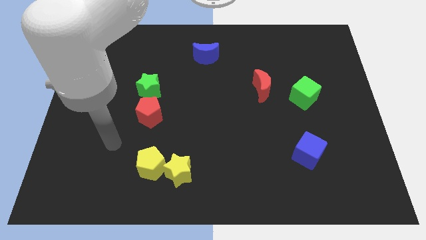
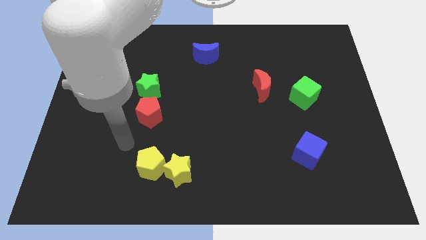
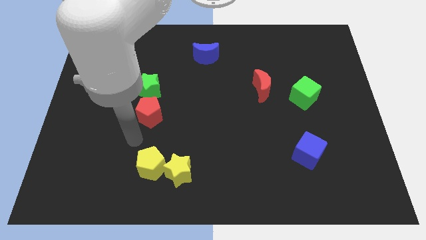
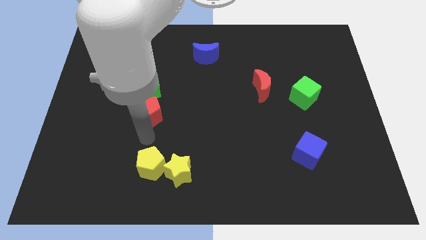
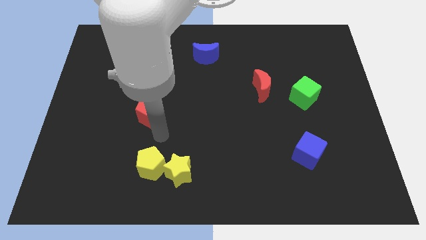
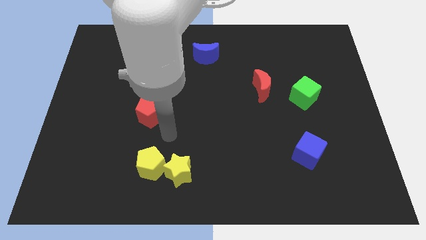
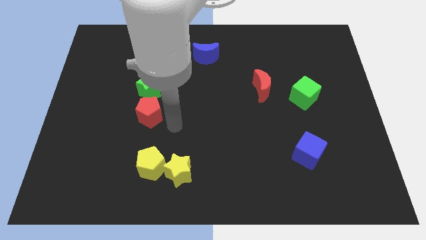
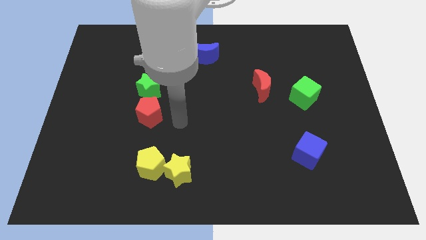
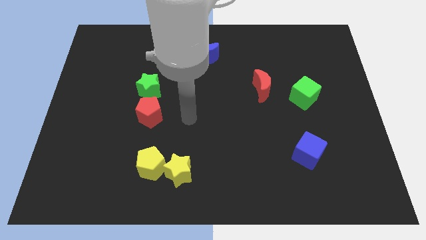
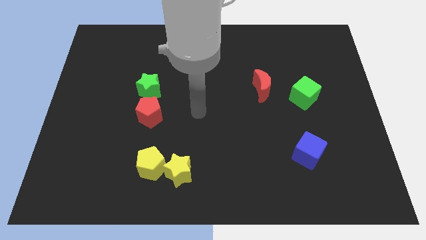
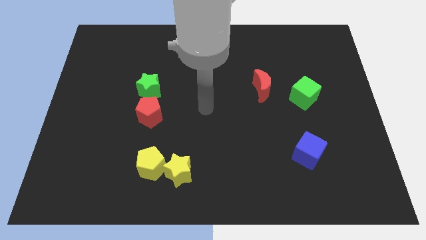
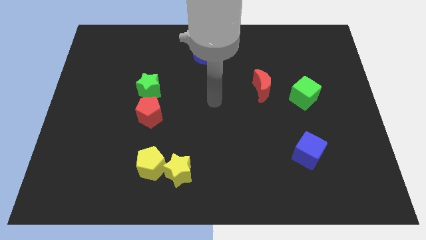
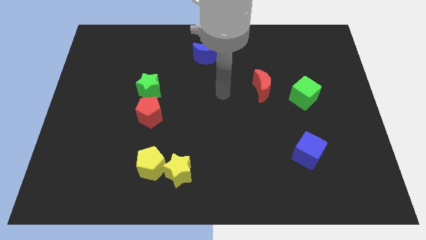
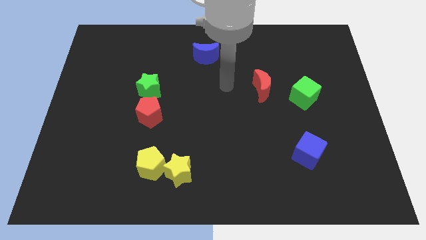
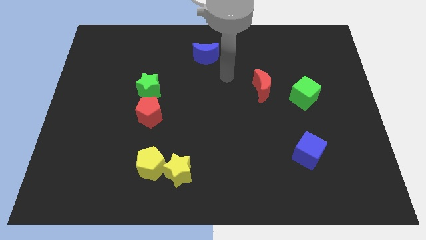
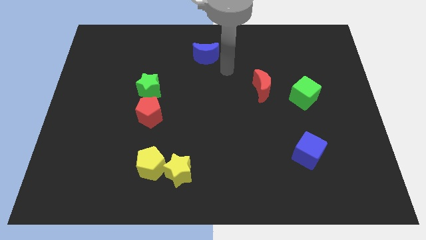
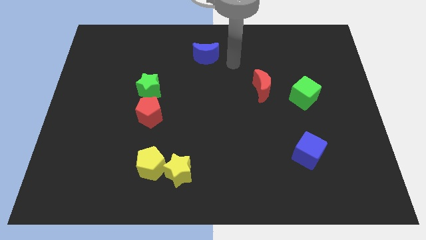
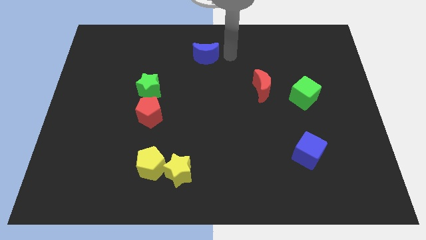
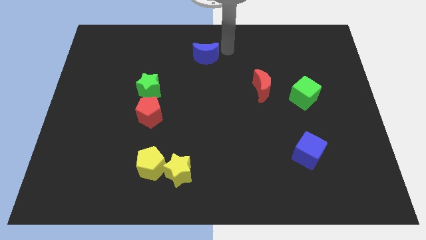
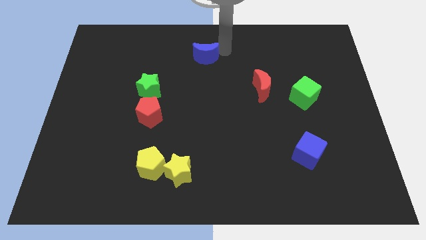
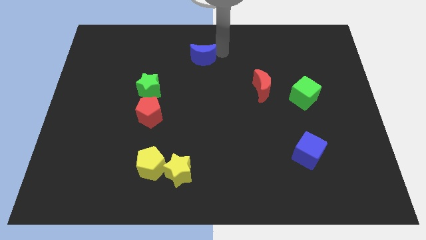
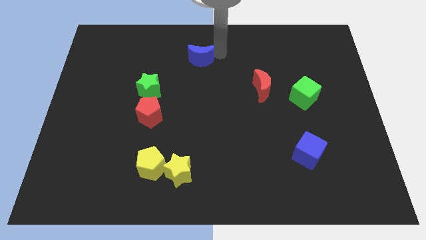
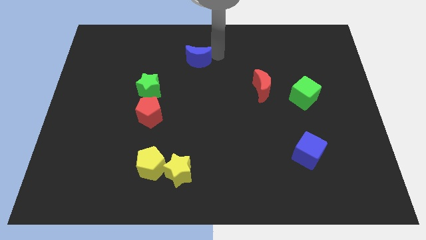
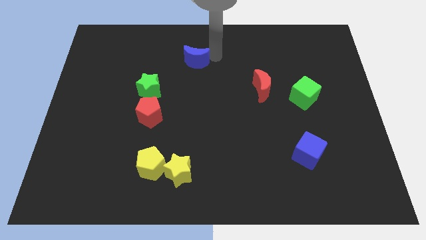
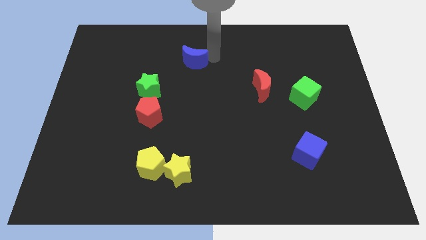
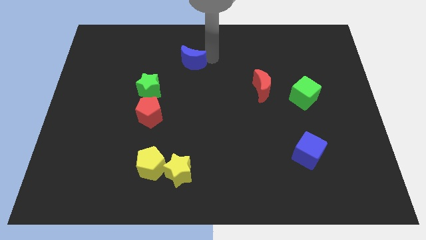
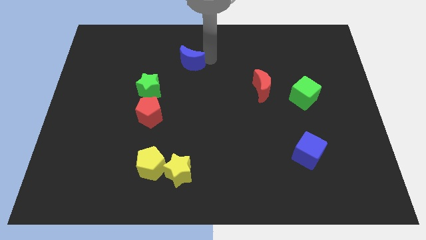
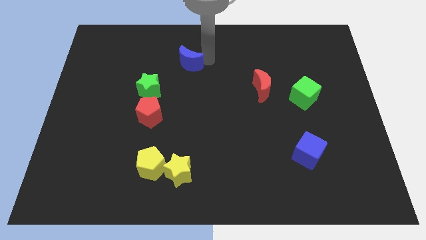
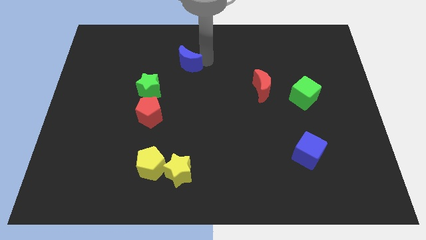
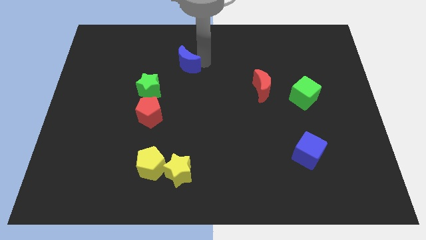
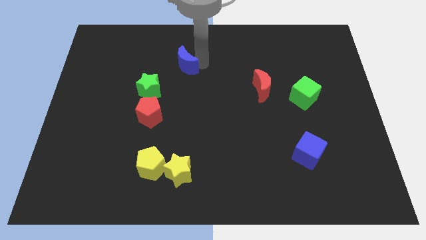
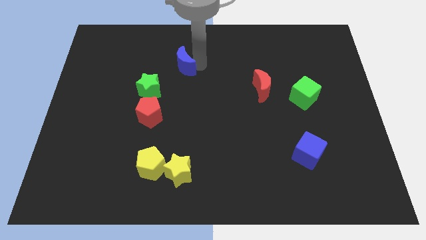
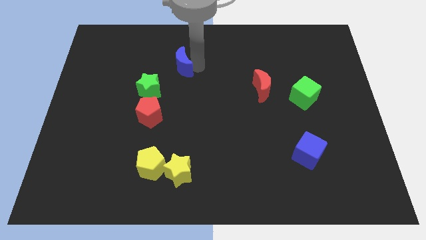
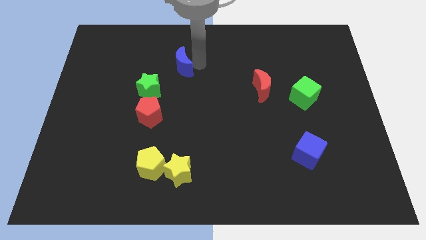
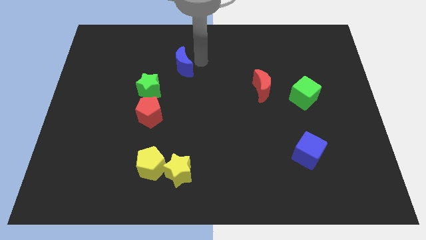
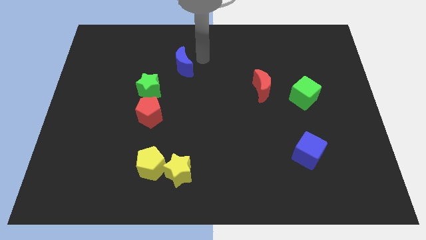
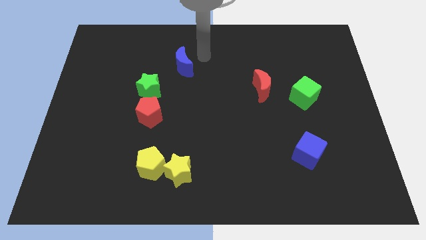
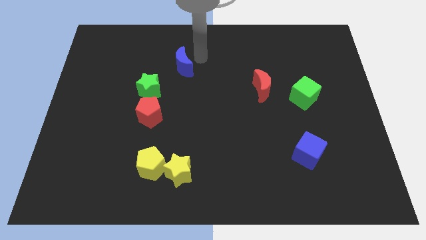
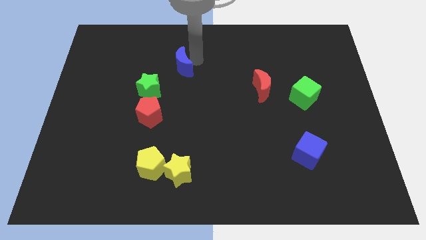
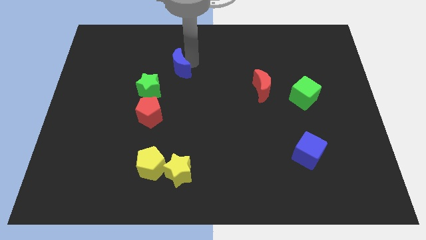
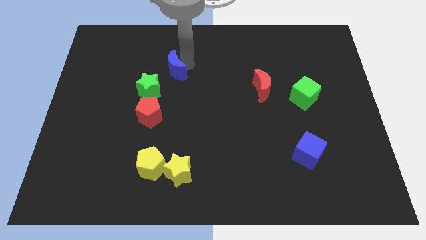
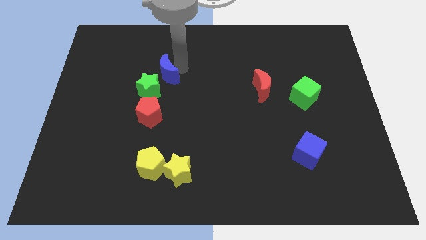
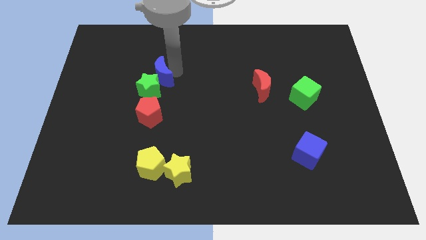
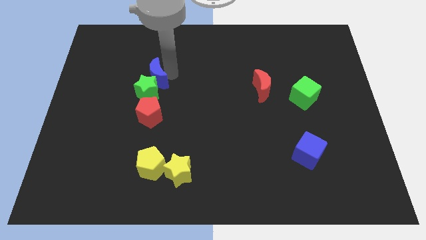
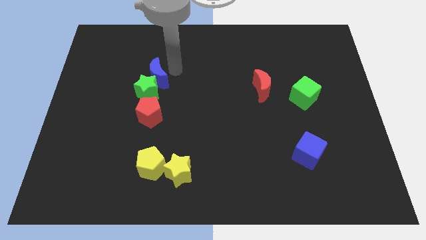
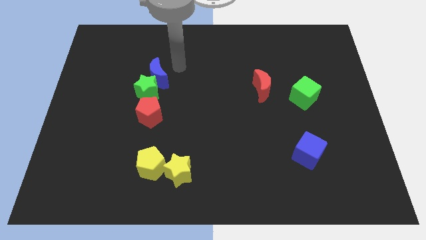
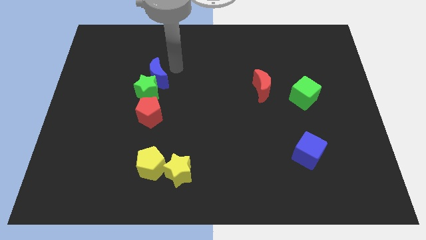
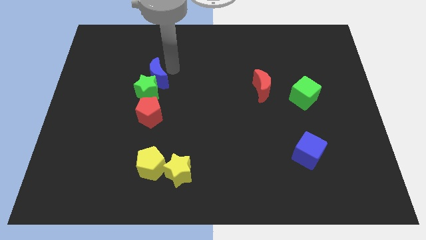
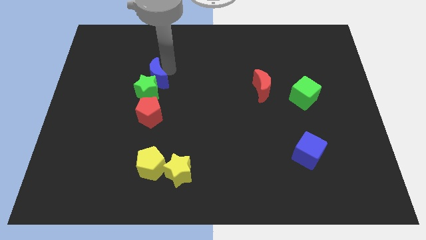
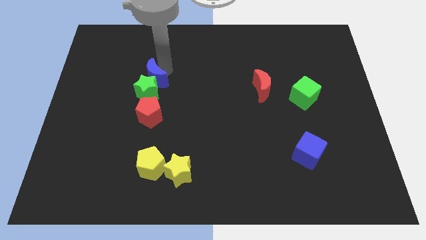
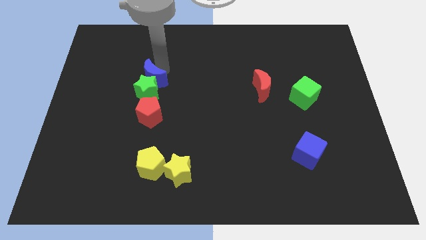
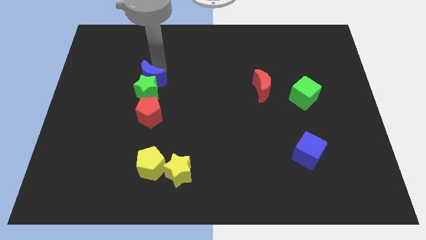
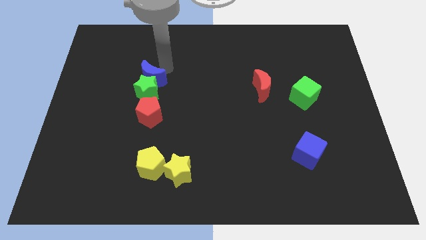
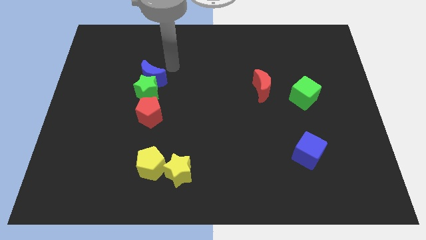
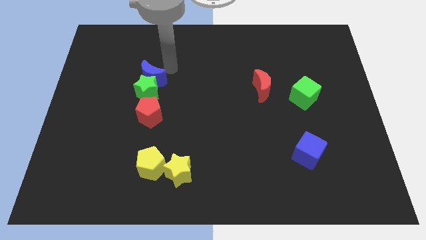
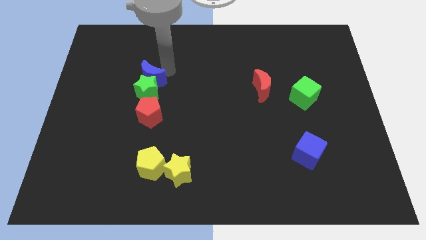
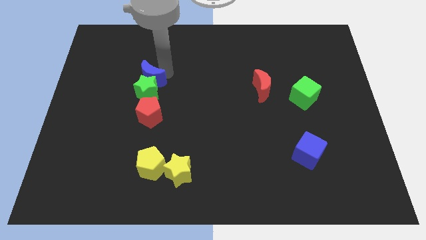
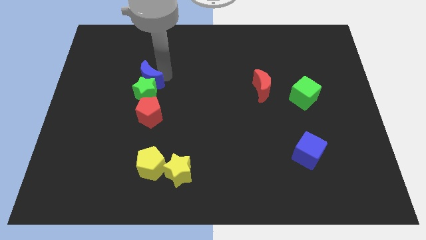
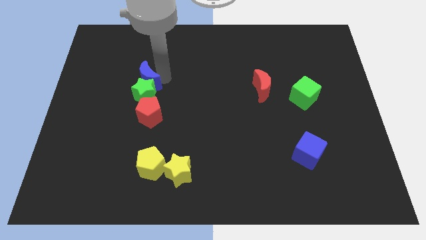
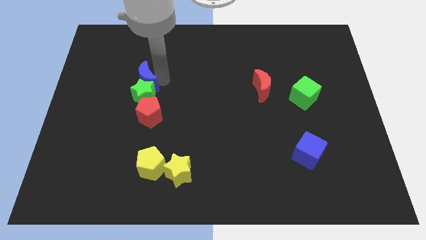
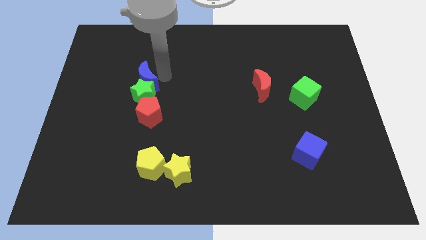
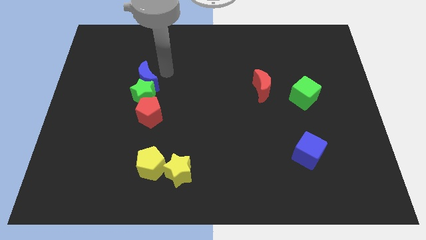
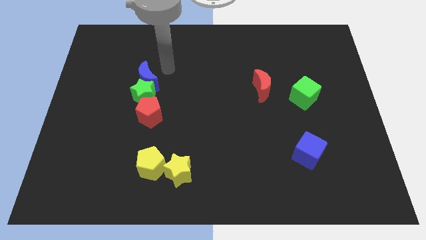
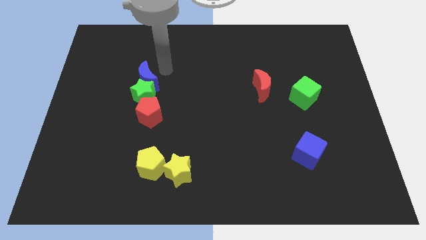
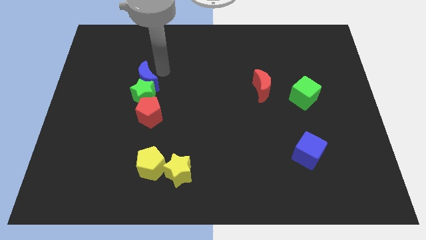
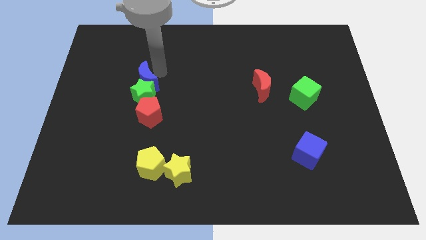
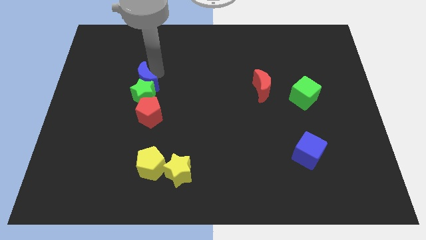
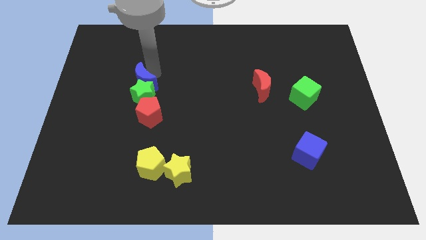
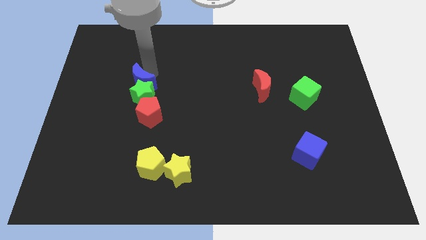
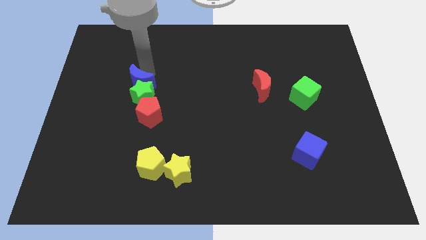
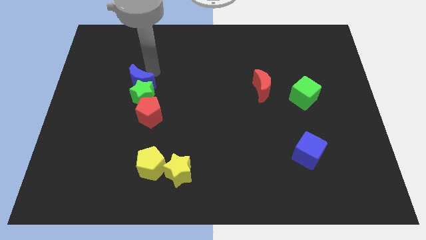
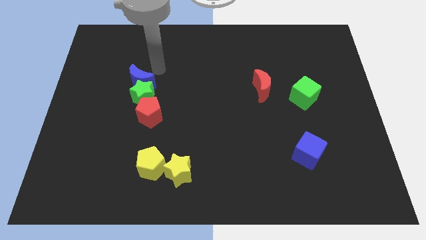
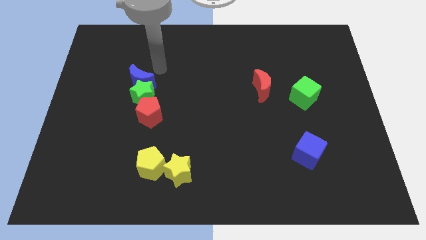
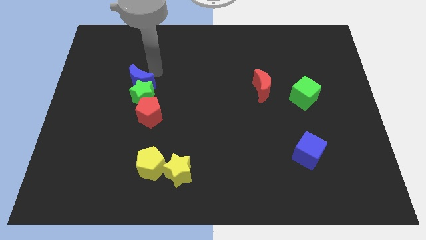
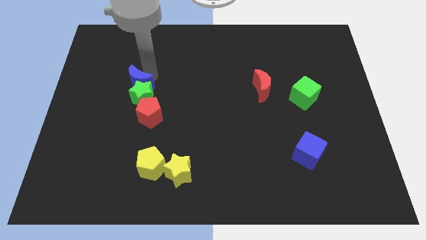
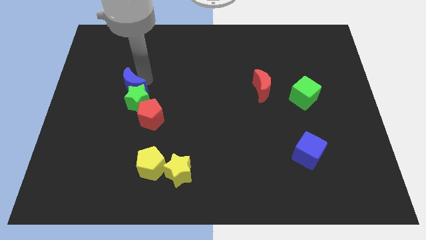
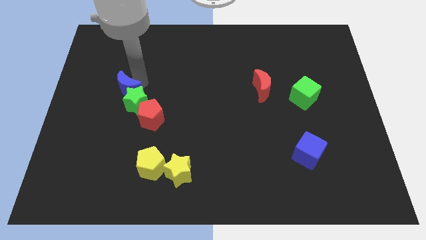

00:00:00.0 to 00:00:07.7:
move the blue moon diagonally down and left
